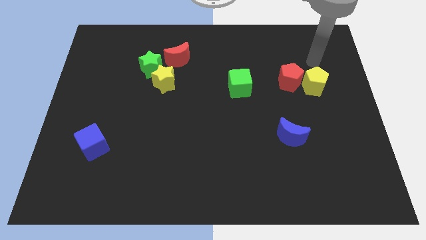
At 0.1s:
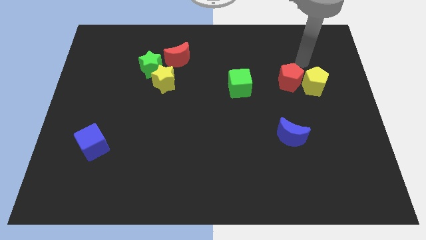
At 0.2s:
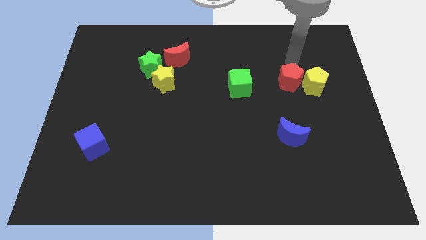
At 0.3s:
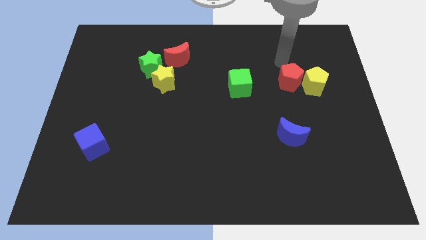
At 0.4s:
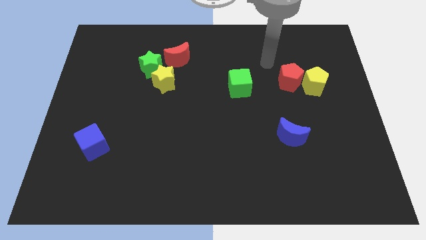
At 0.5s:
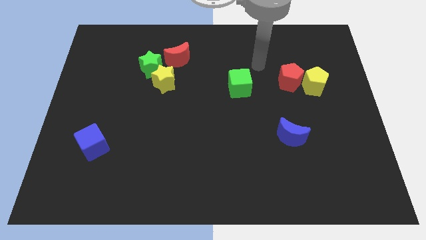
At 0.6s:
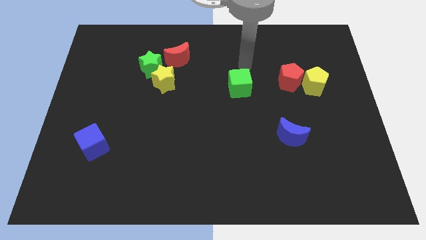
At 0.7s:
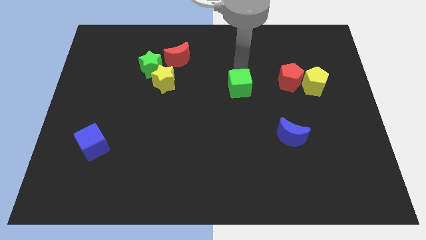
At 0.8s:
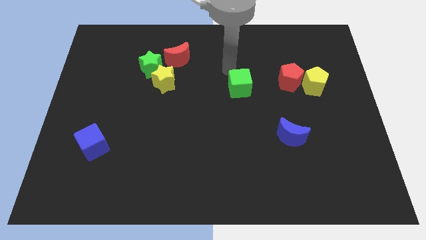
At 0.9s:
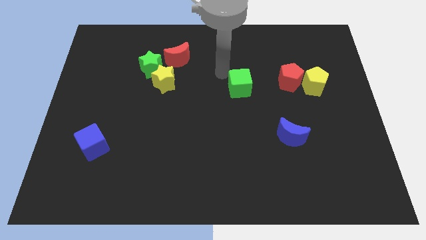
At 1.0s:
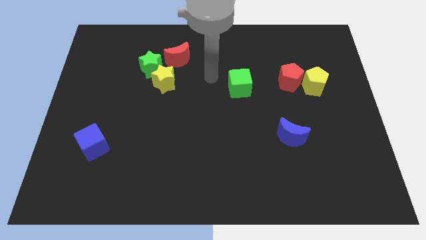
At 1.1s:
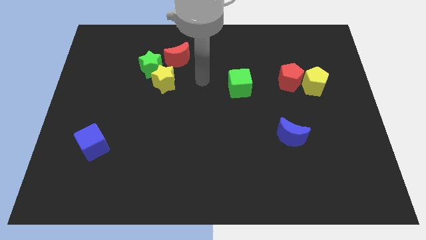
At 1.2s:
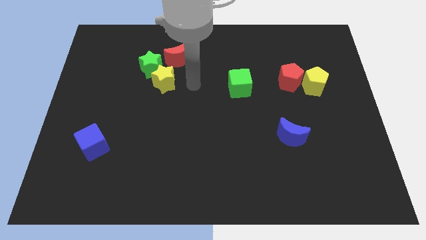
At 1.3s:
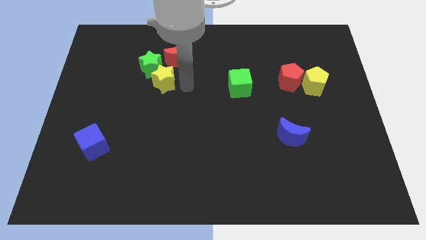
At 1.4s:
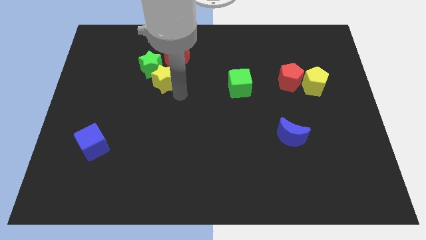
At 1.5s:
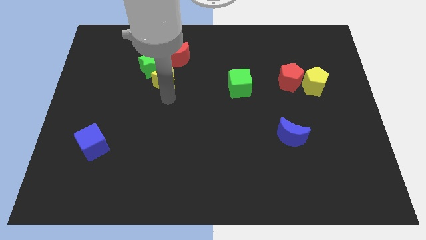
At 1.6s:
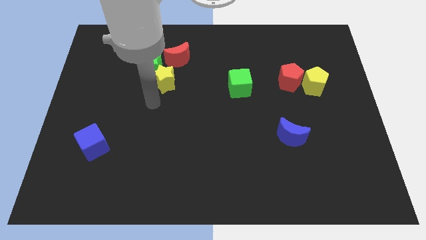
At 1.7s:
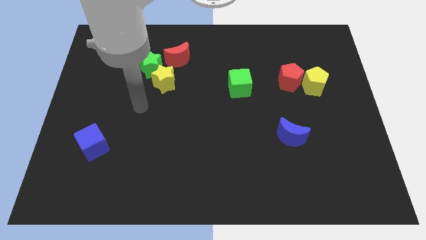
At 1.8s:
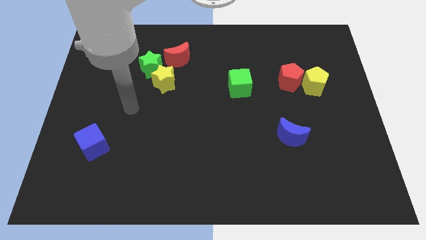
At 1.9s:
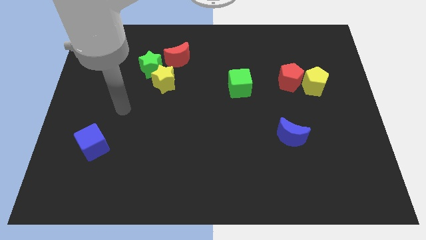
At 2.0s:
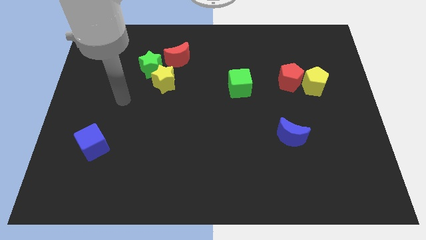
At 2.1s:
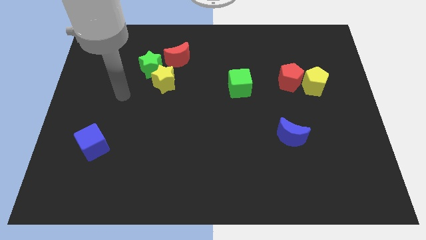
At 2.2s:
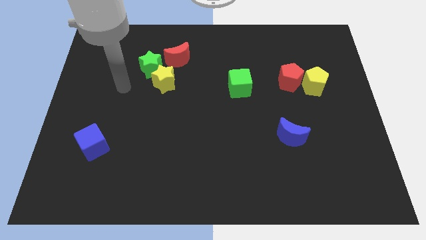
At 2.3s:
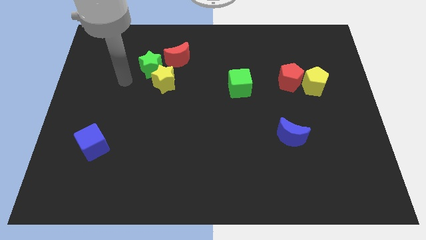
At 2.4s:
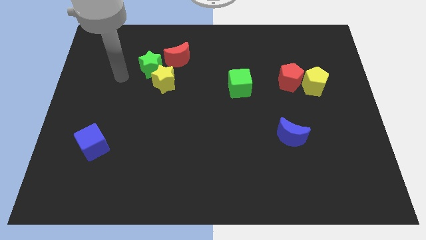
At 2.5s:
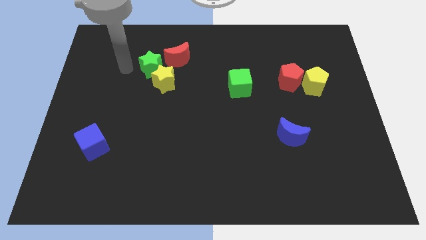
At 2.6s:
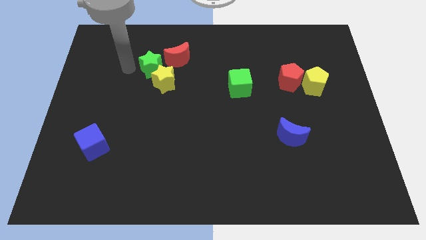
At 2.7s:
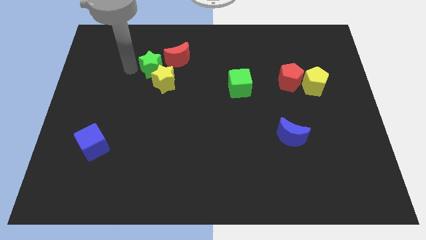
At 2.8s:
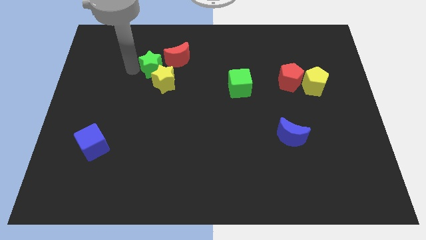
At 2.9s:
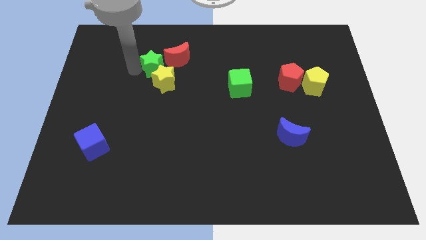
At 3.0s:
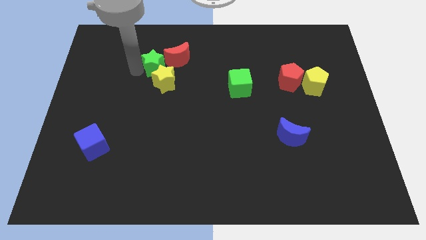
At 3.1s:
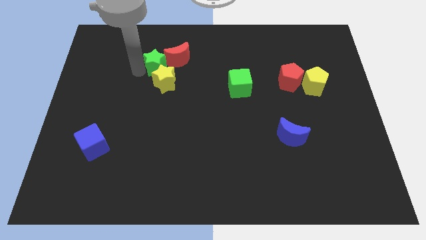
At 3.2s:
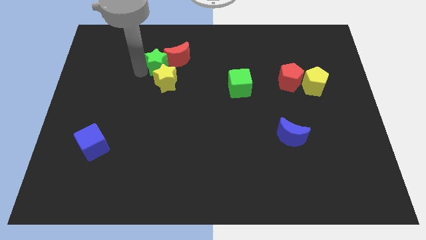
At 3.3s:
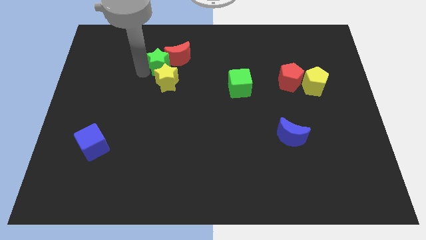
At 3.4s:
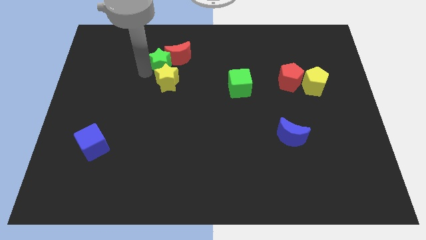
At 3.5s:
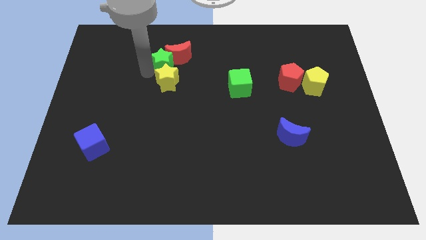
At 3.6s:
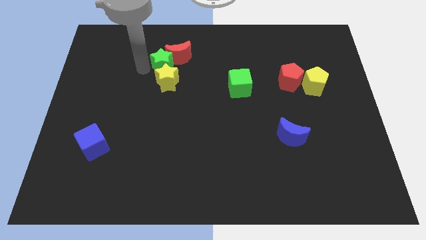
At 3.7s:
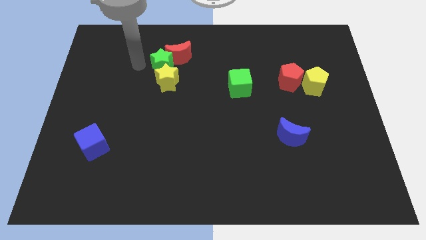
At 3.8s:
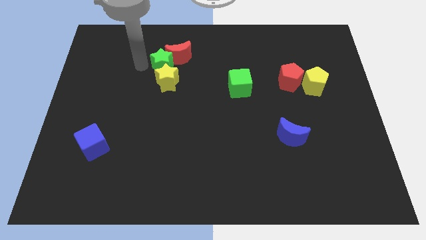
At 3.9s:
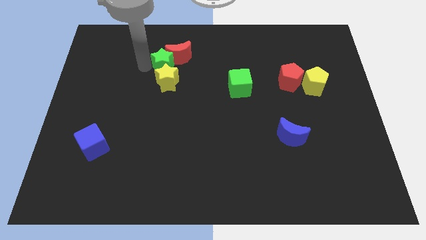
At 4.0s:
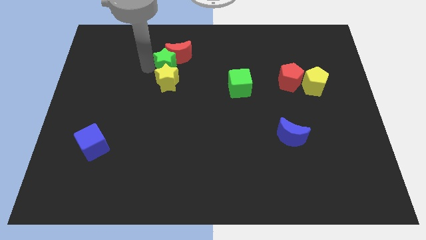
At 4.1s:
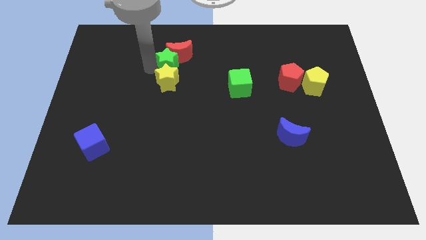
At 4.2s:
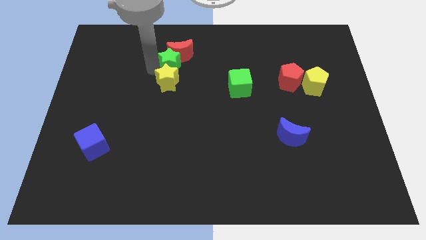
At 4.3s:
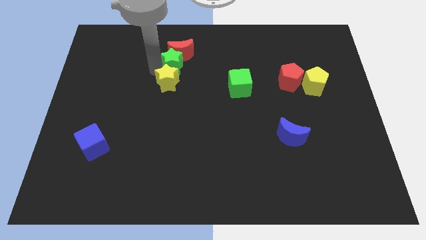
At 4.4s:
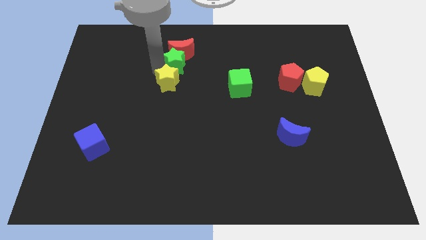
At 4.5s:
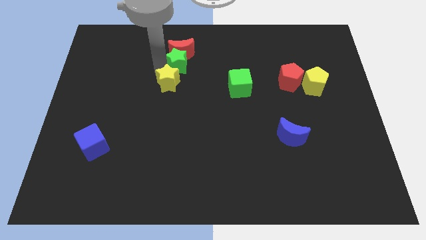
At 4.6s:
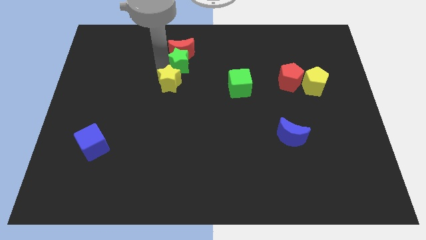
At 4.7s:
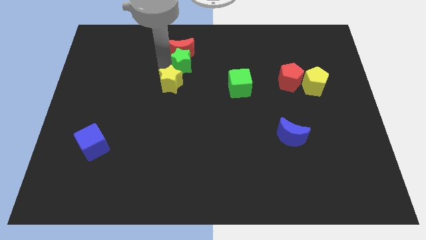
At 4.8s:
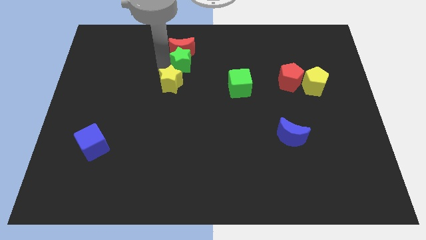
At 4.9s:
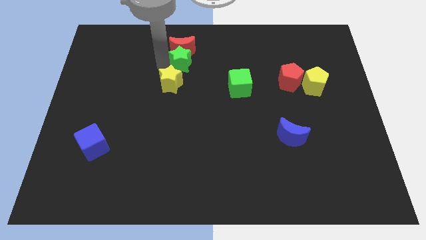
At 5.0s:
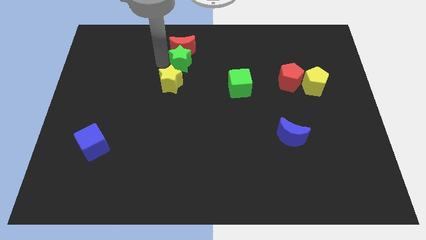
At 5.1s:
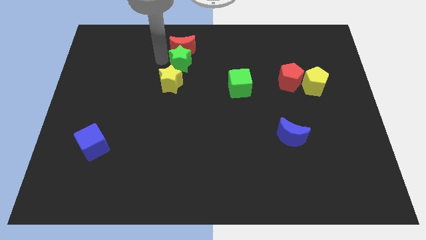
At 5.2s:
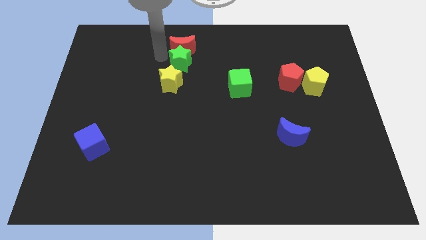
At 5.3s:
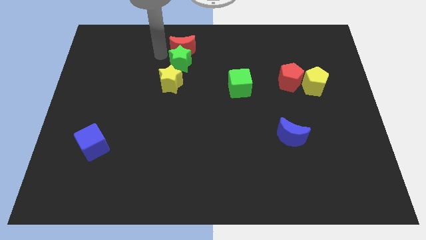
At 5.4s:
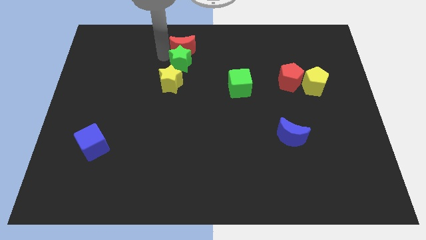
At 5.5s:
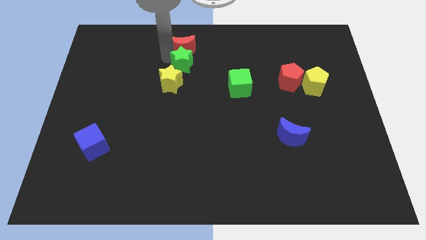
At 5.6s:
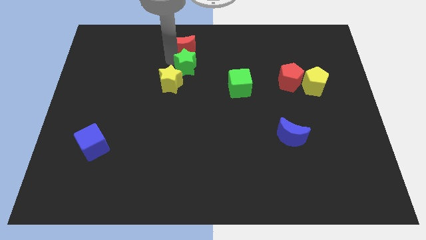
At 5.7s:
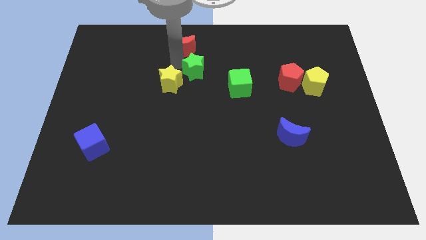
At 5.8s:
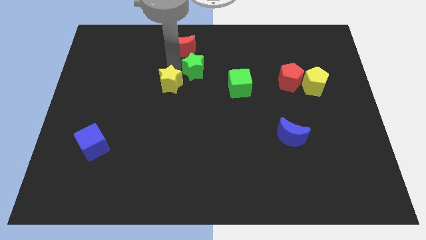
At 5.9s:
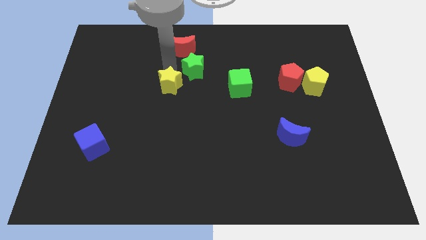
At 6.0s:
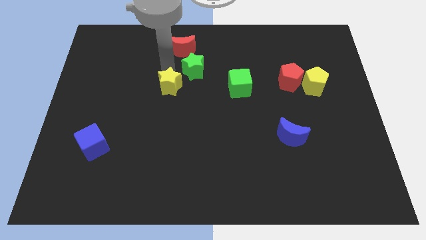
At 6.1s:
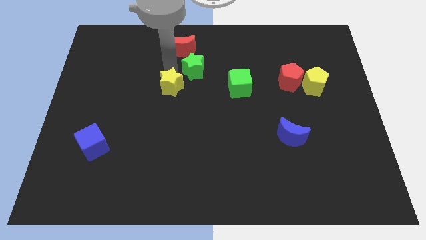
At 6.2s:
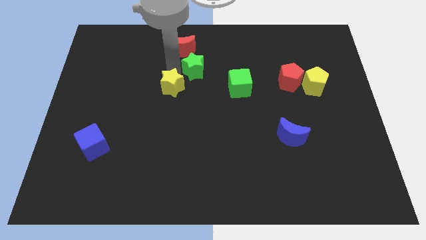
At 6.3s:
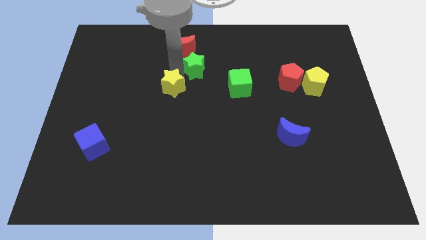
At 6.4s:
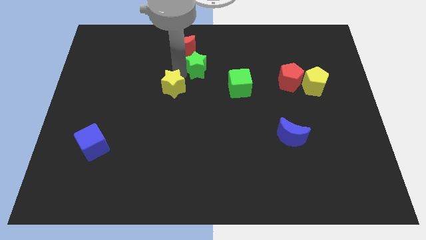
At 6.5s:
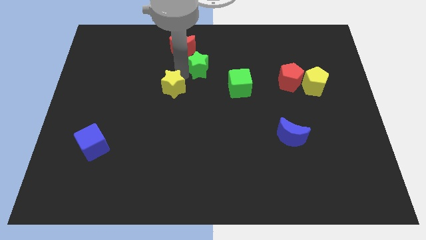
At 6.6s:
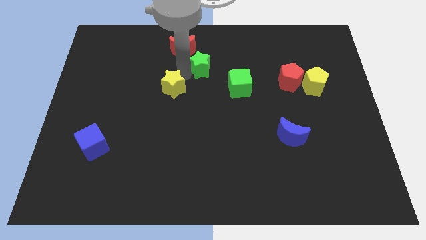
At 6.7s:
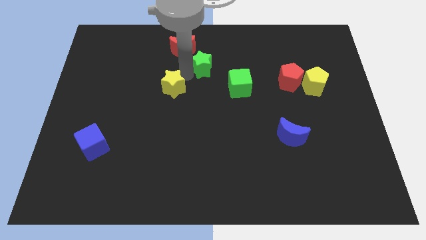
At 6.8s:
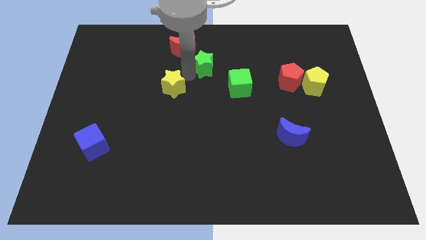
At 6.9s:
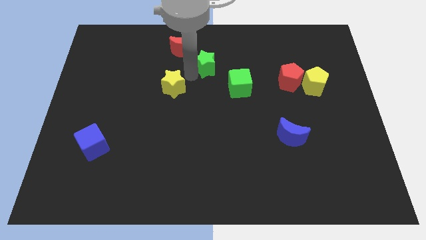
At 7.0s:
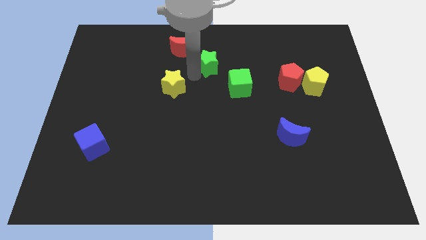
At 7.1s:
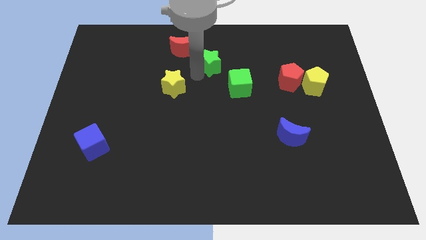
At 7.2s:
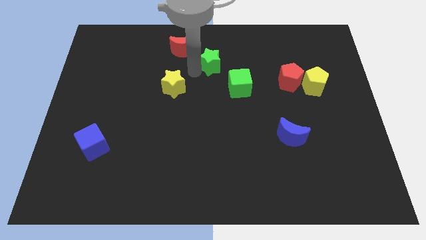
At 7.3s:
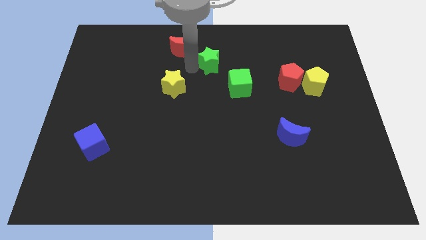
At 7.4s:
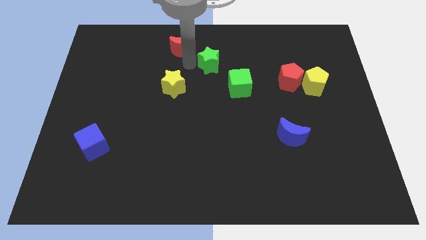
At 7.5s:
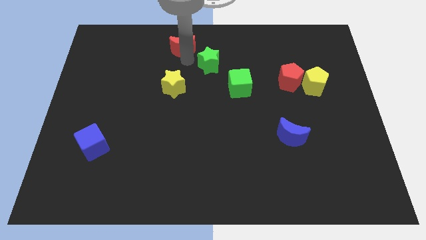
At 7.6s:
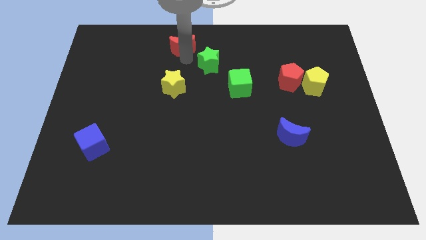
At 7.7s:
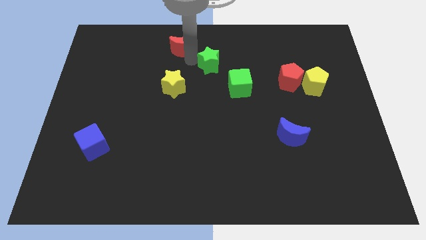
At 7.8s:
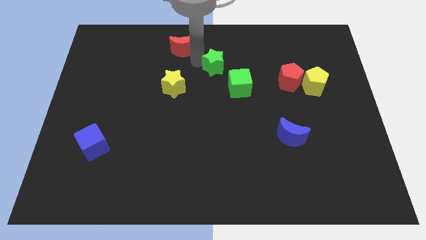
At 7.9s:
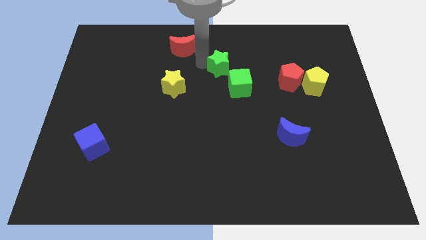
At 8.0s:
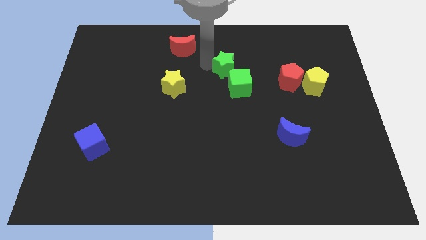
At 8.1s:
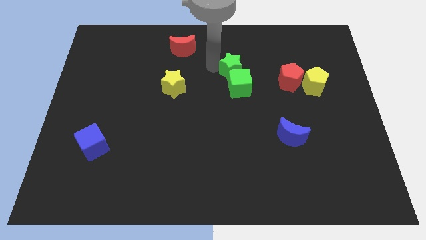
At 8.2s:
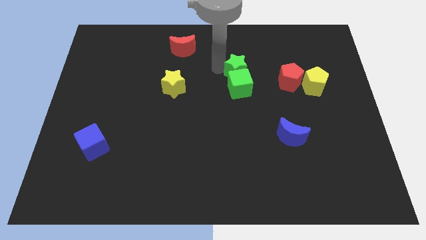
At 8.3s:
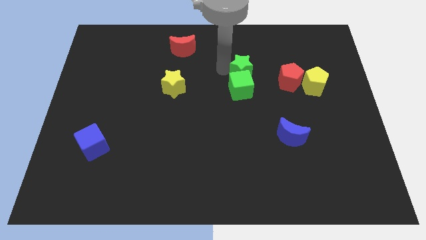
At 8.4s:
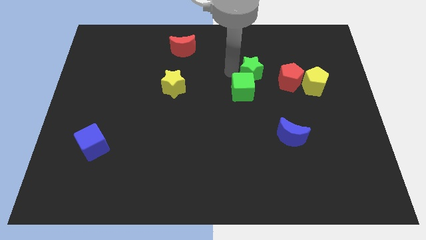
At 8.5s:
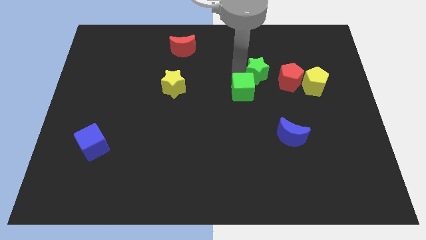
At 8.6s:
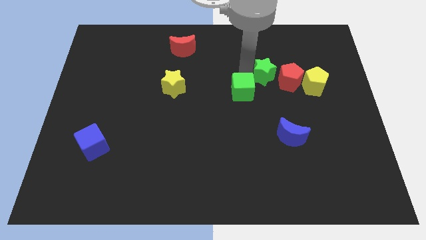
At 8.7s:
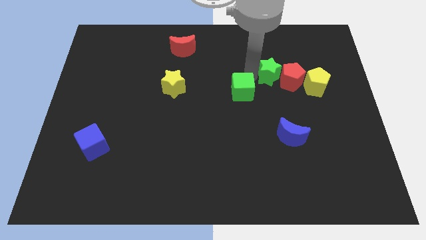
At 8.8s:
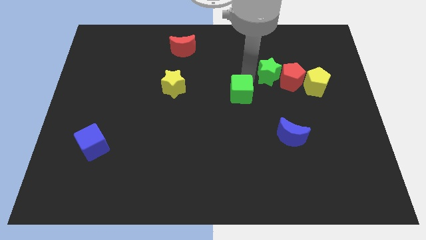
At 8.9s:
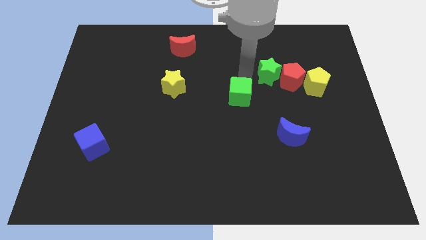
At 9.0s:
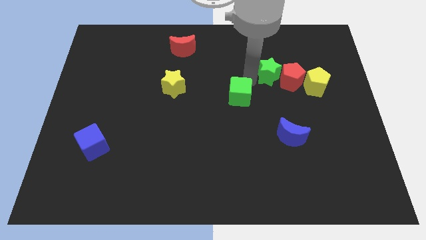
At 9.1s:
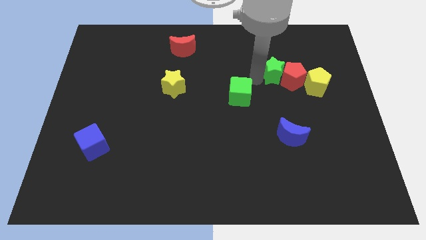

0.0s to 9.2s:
slide the green star to the top left of the yellow pentagon
